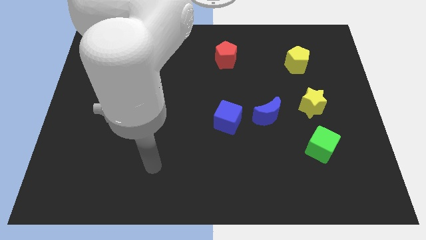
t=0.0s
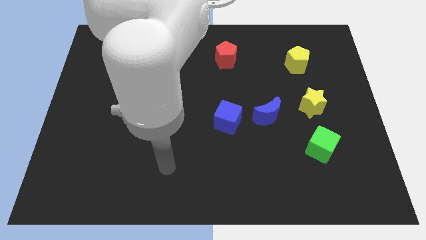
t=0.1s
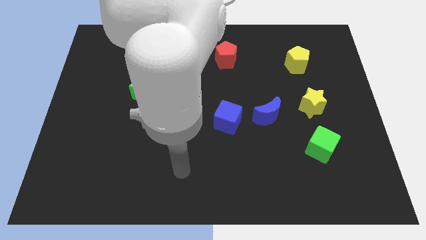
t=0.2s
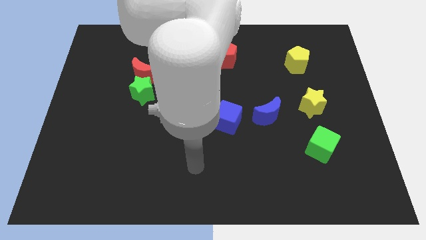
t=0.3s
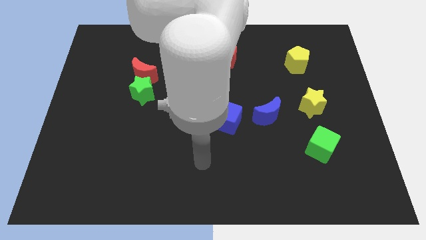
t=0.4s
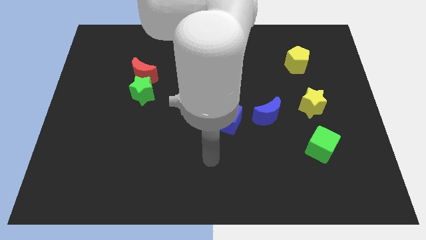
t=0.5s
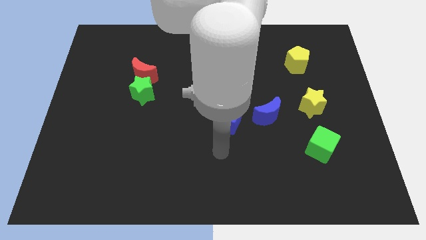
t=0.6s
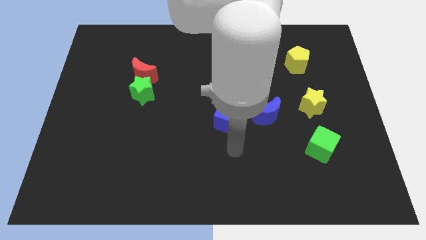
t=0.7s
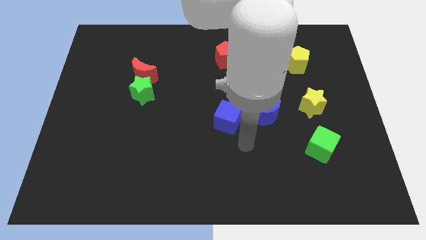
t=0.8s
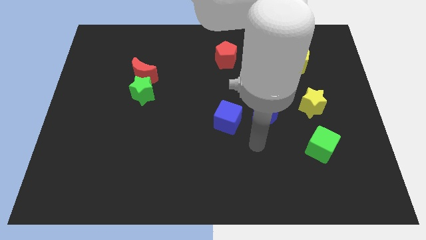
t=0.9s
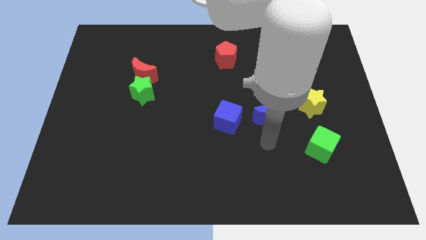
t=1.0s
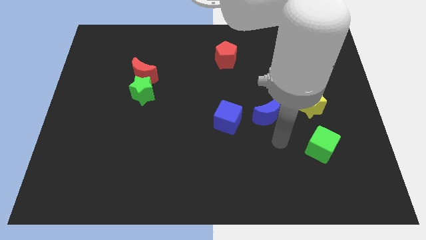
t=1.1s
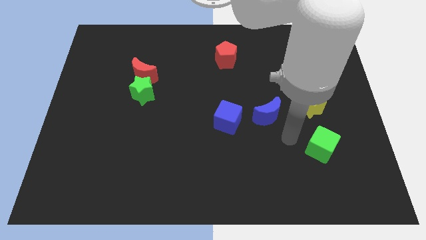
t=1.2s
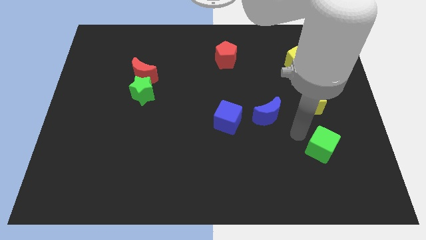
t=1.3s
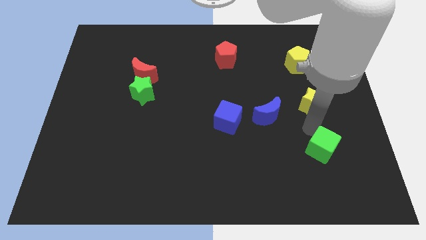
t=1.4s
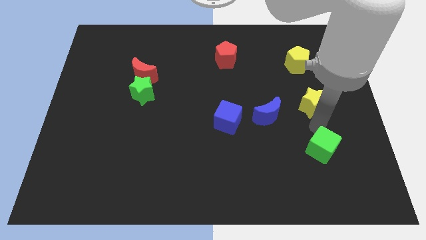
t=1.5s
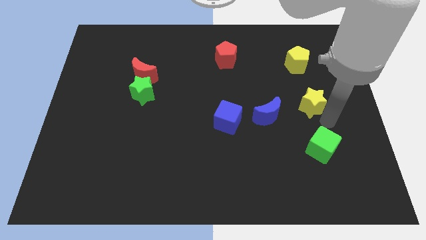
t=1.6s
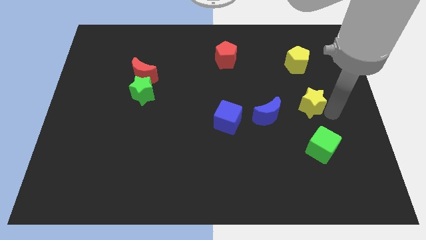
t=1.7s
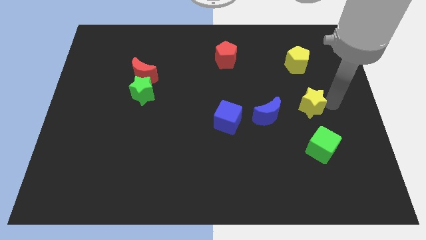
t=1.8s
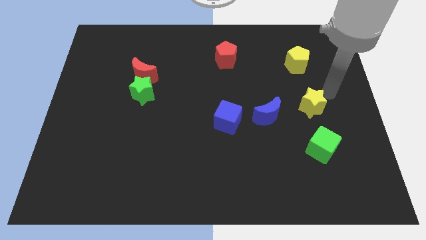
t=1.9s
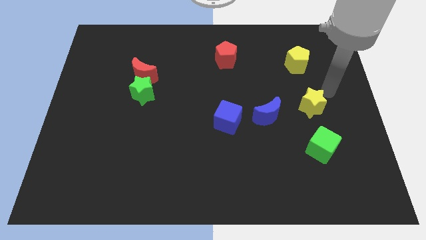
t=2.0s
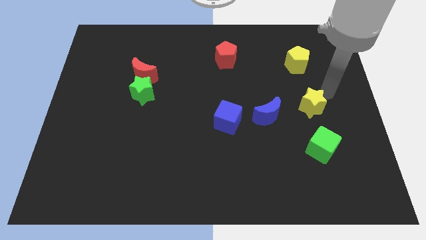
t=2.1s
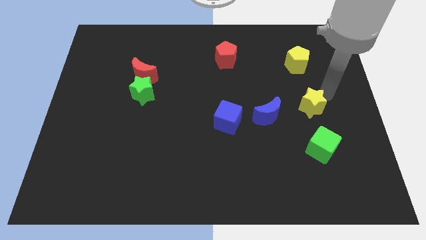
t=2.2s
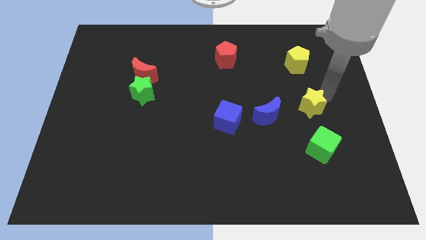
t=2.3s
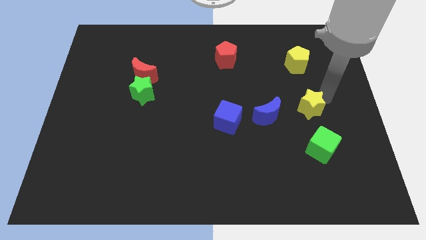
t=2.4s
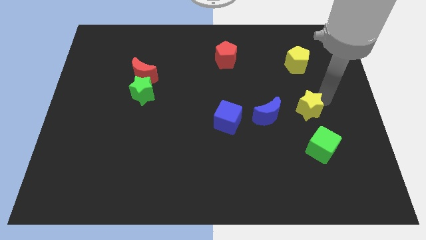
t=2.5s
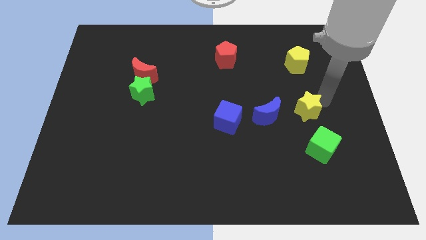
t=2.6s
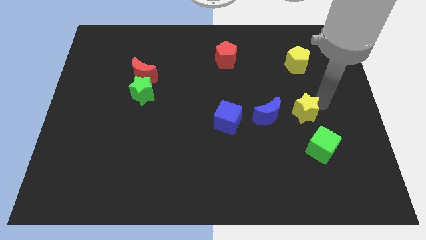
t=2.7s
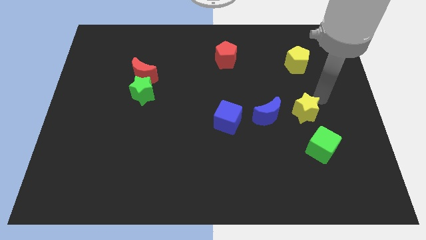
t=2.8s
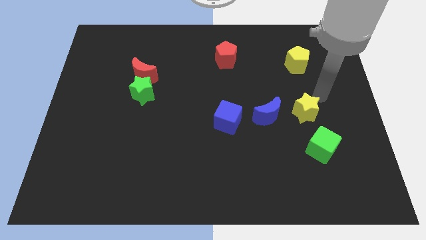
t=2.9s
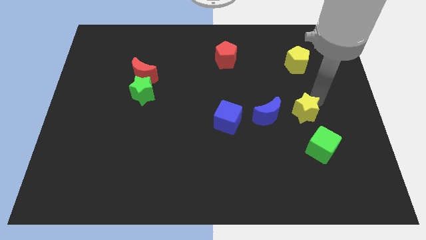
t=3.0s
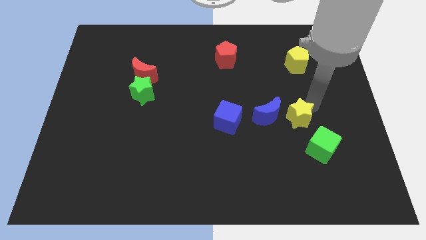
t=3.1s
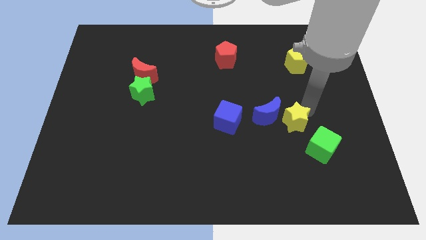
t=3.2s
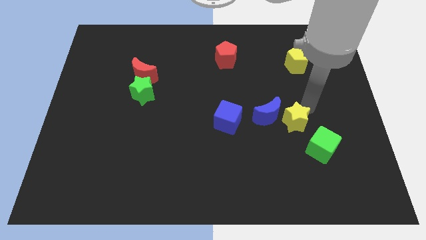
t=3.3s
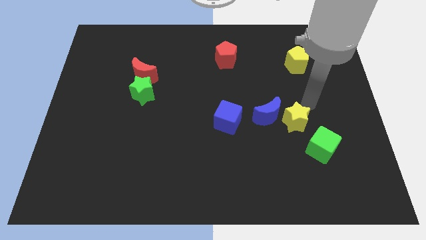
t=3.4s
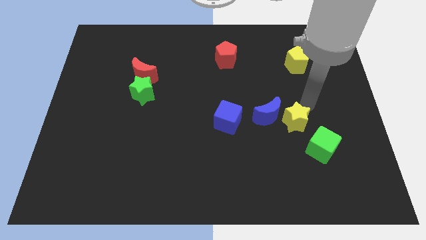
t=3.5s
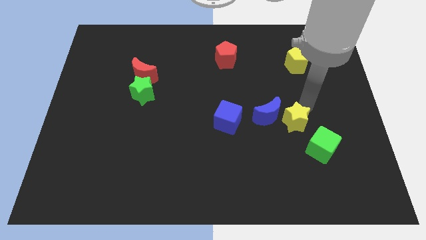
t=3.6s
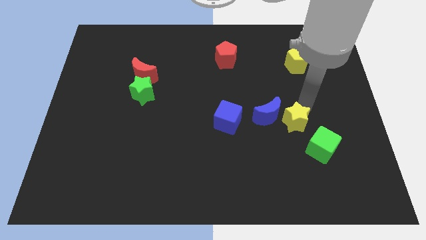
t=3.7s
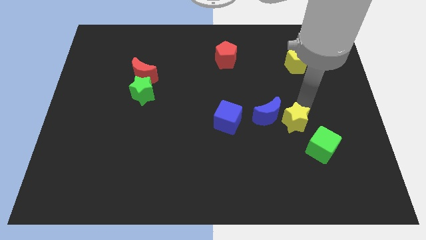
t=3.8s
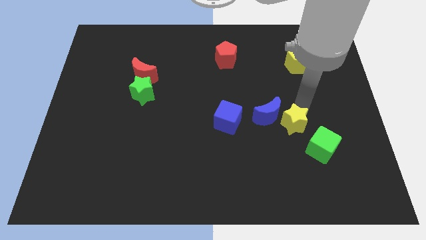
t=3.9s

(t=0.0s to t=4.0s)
push the yellow star a little downwards and to the left diagonally

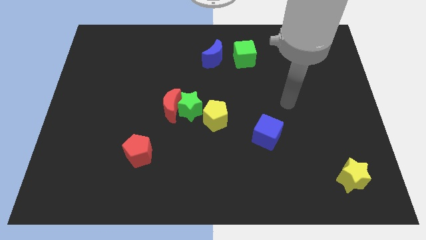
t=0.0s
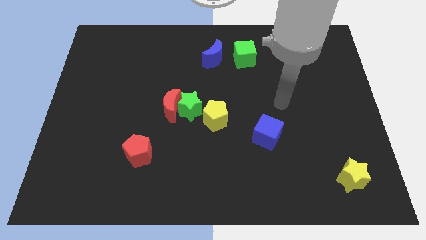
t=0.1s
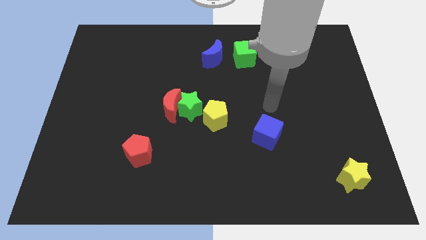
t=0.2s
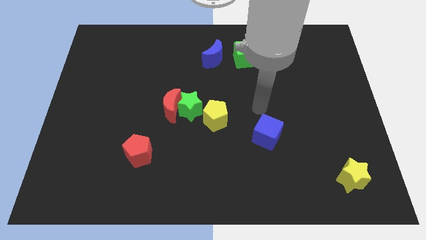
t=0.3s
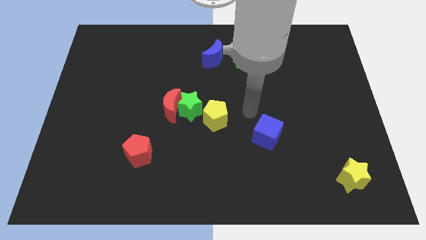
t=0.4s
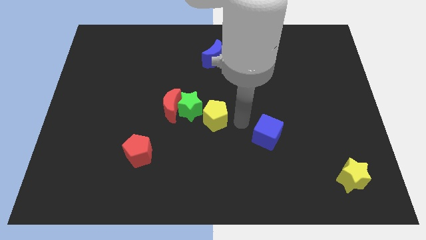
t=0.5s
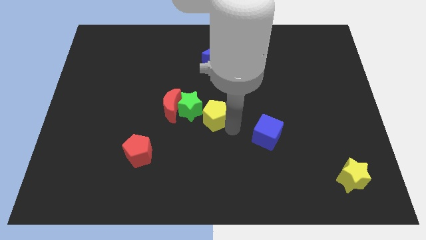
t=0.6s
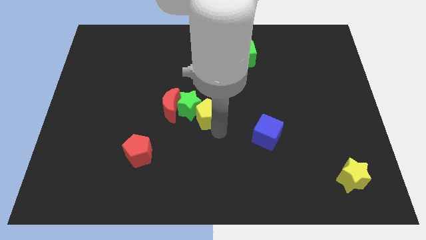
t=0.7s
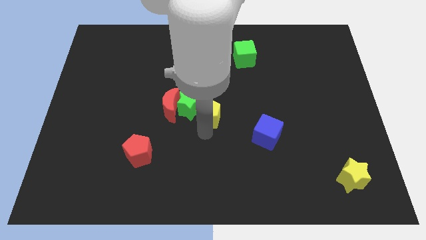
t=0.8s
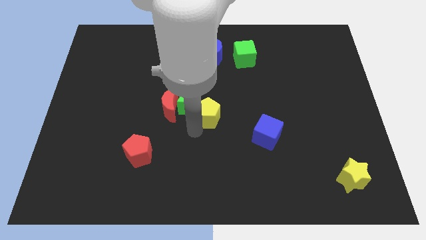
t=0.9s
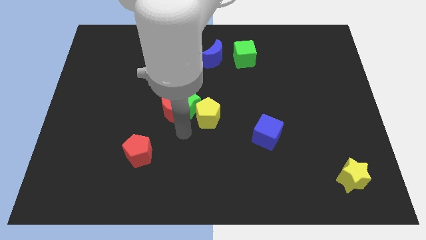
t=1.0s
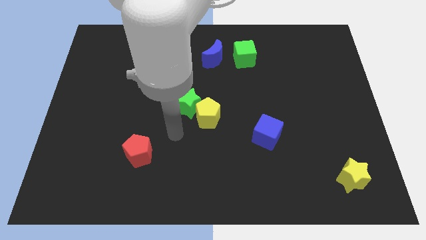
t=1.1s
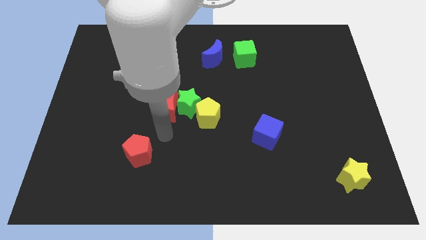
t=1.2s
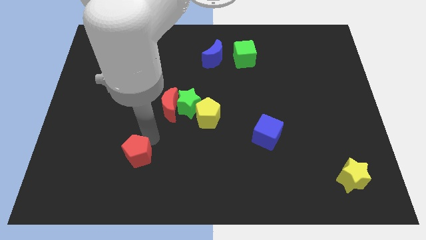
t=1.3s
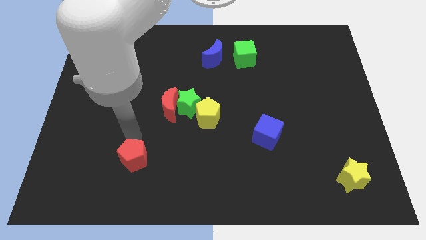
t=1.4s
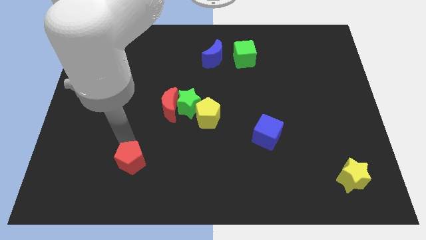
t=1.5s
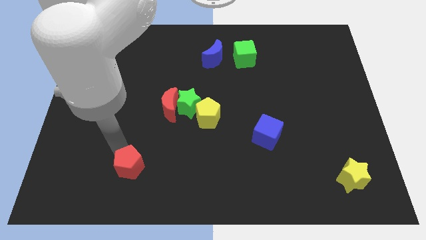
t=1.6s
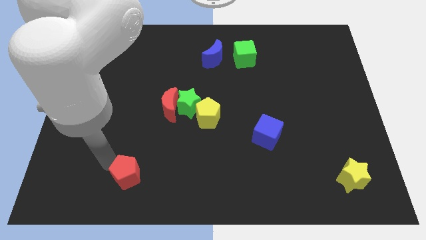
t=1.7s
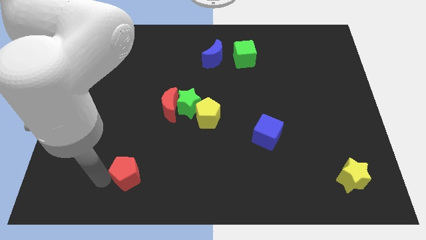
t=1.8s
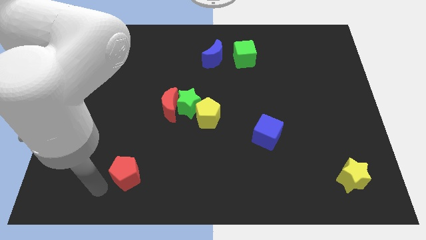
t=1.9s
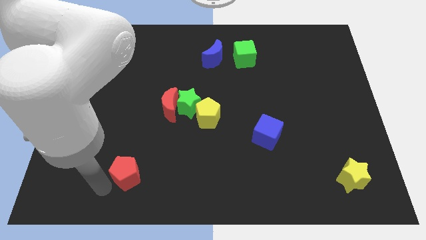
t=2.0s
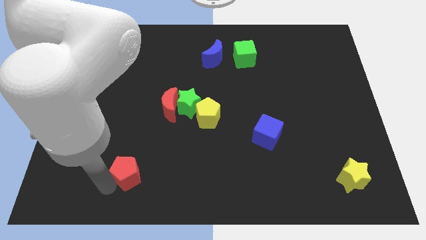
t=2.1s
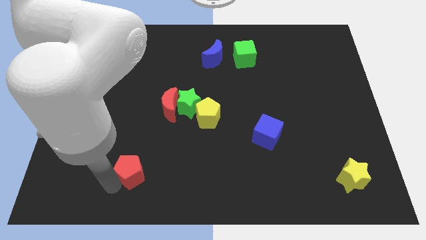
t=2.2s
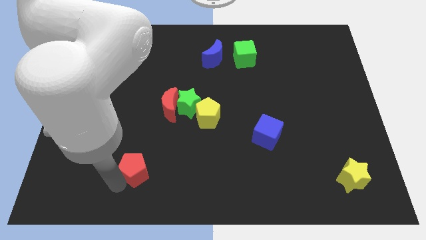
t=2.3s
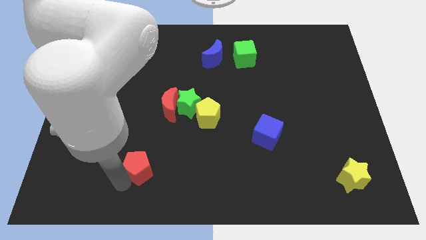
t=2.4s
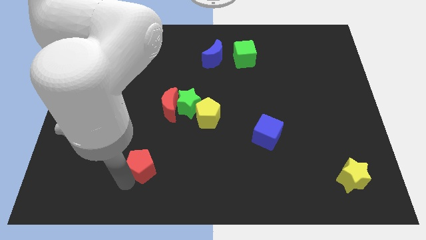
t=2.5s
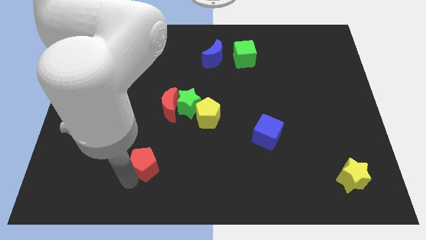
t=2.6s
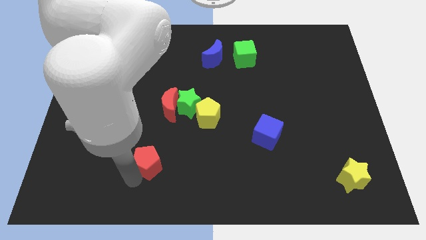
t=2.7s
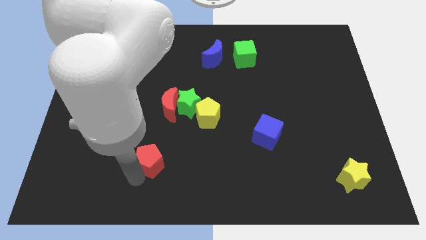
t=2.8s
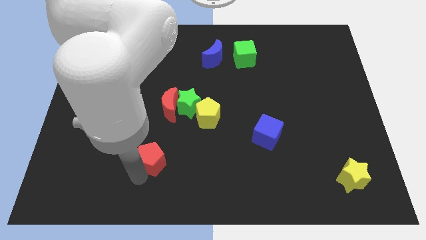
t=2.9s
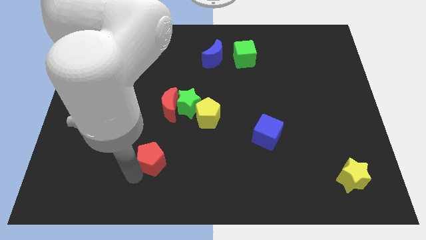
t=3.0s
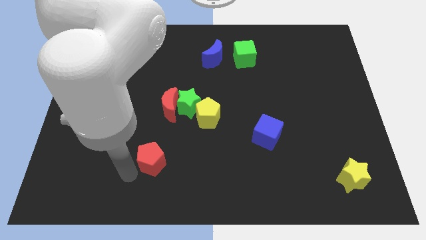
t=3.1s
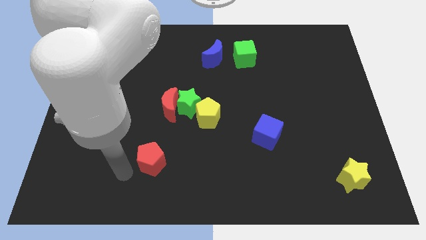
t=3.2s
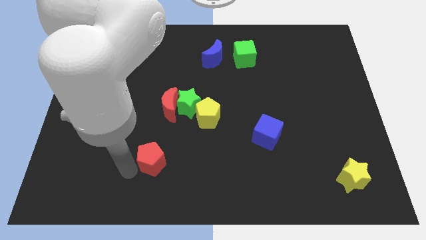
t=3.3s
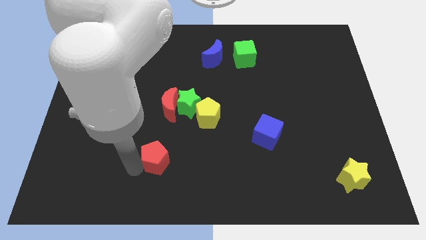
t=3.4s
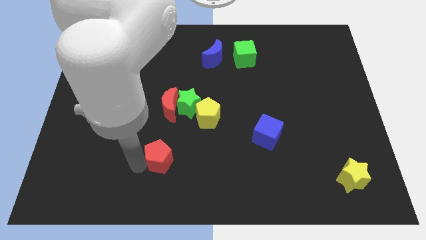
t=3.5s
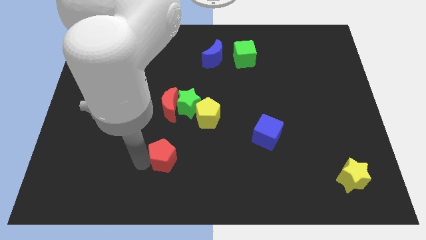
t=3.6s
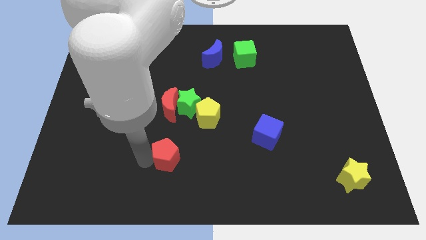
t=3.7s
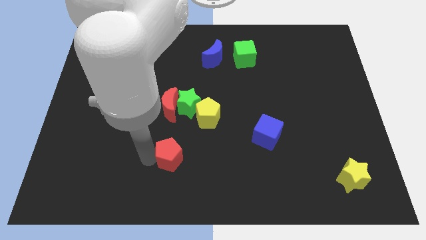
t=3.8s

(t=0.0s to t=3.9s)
slightly slide the red pentagon right
